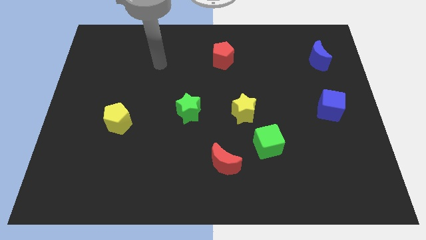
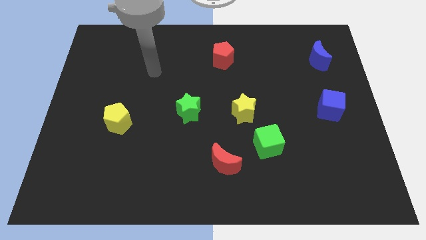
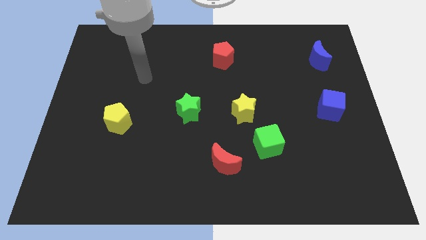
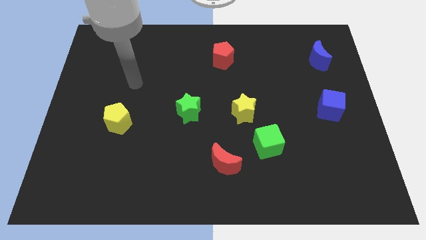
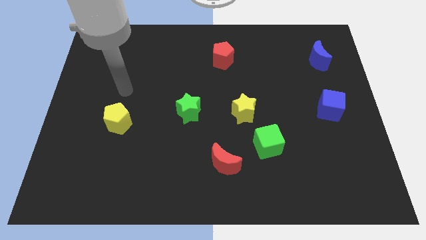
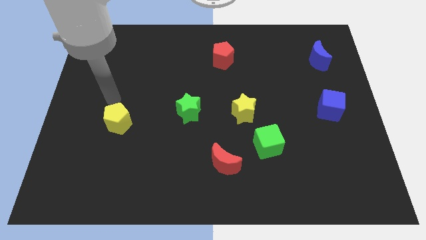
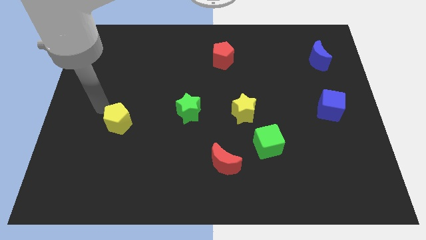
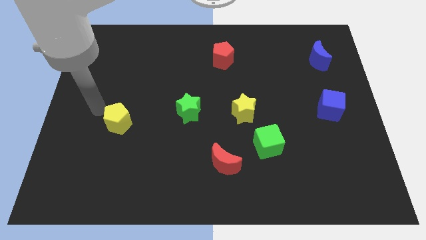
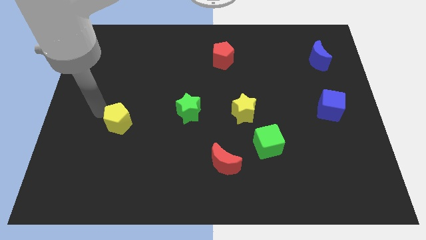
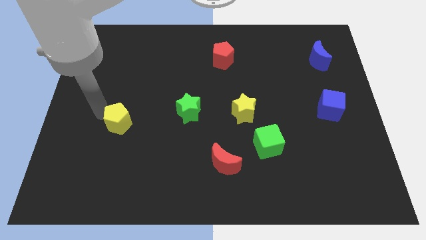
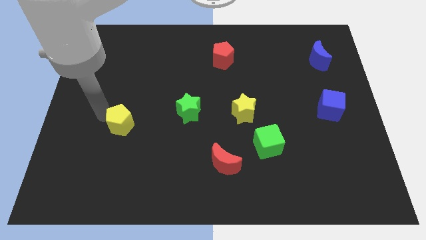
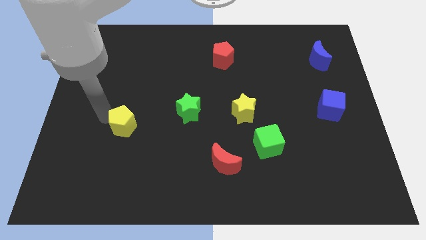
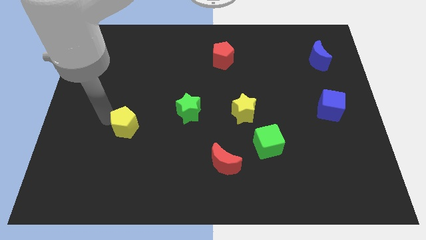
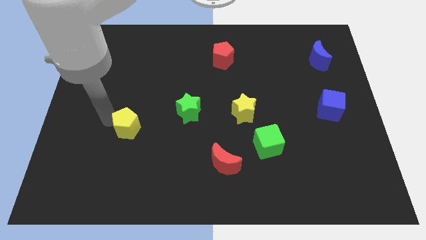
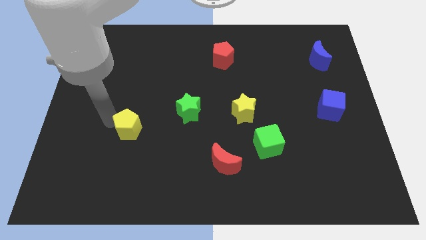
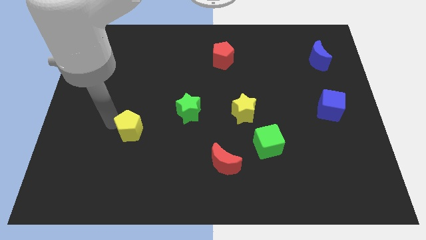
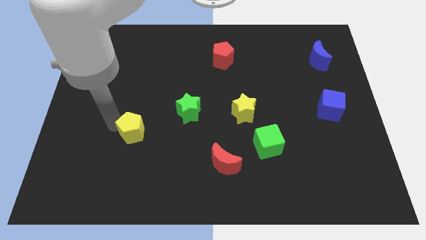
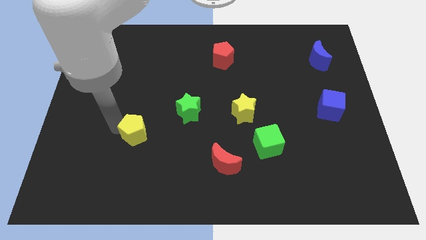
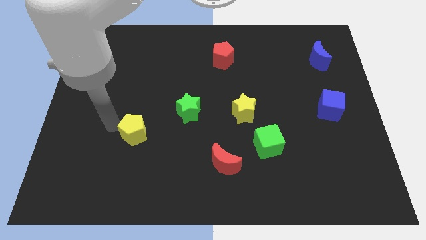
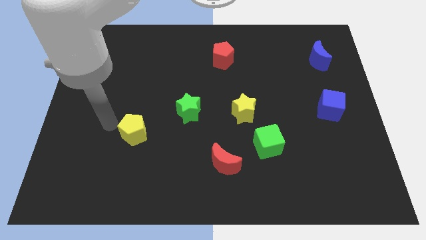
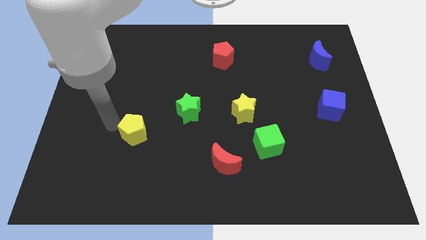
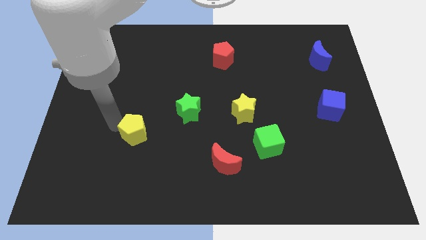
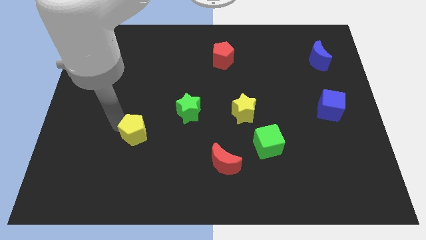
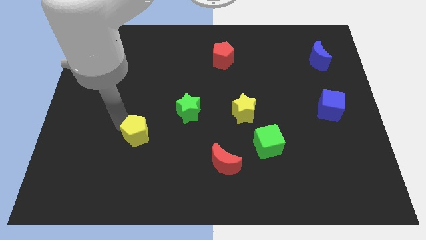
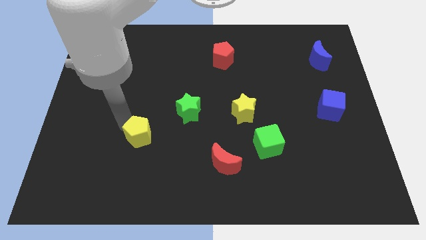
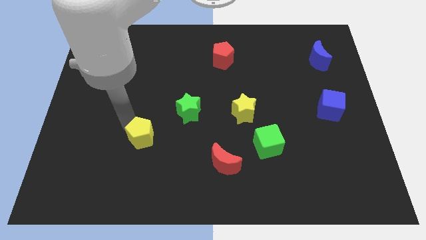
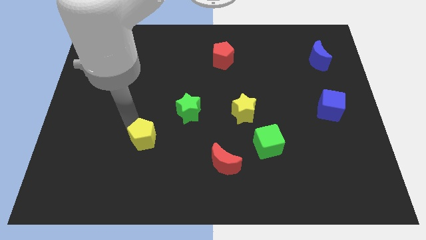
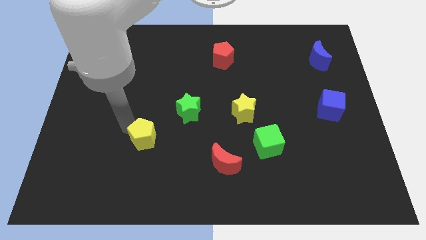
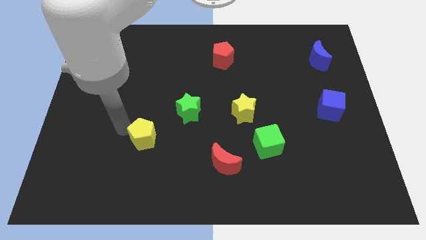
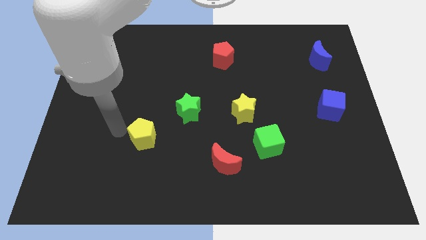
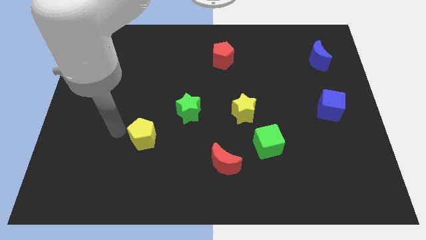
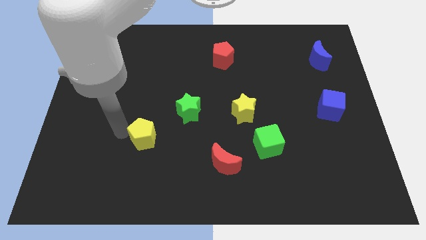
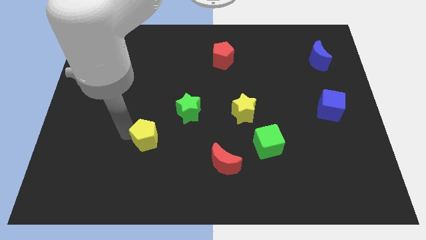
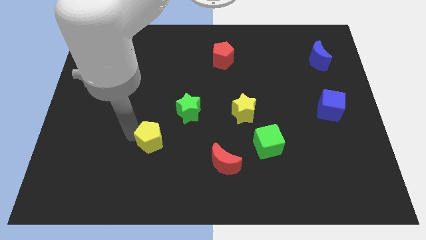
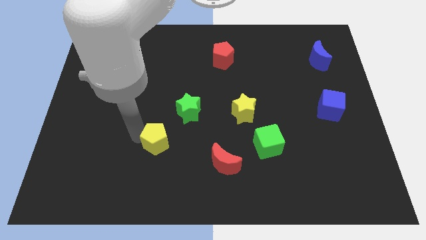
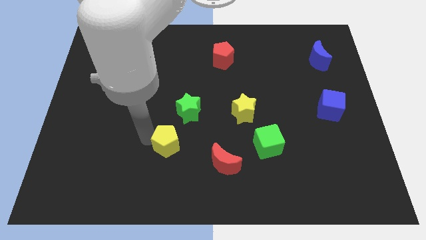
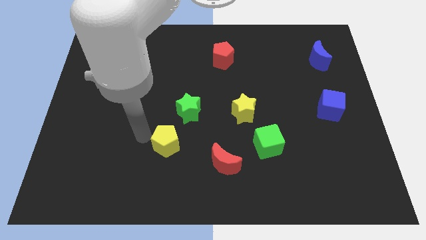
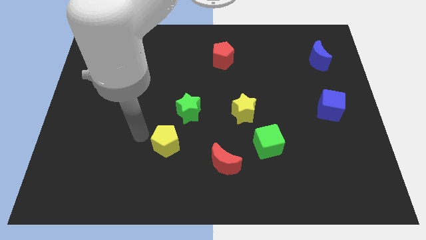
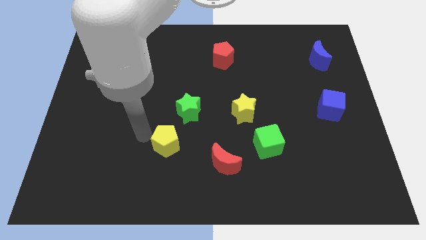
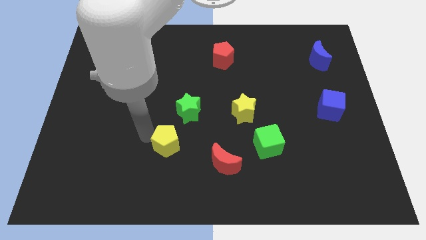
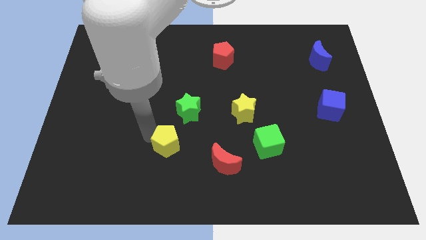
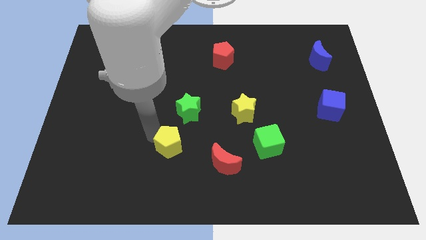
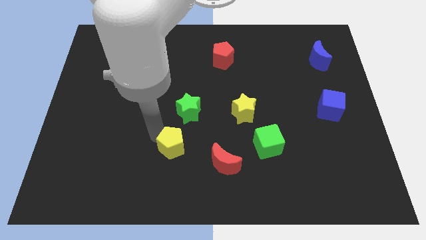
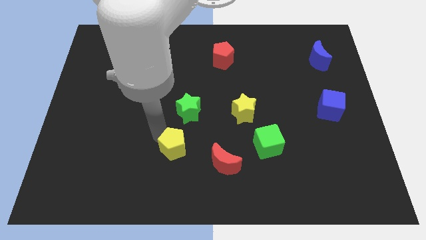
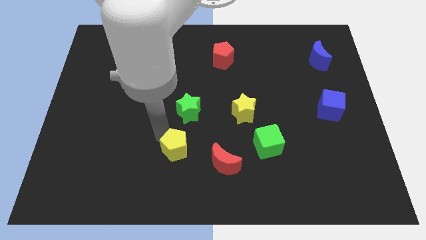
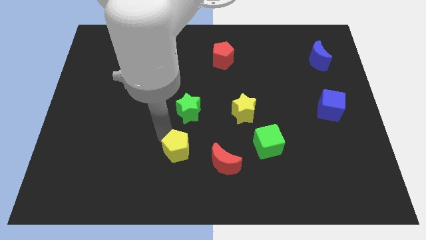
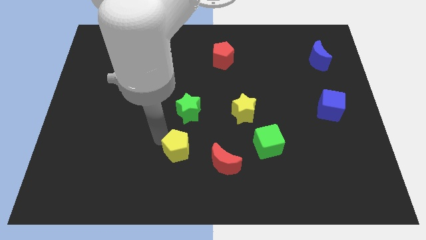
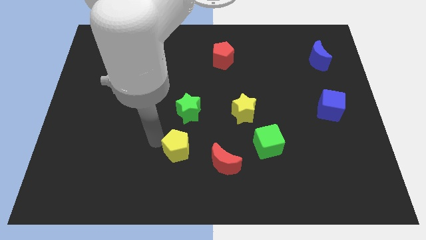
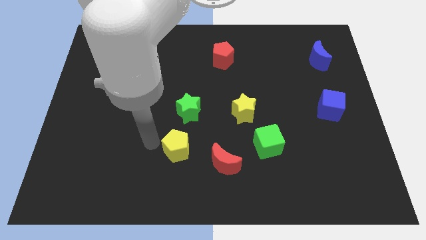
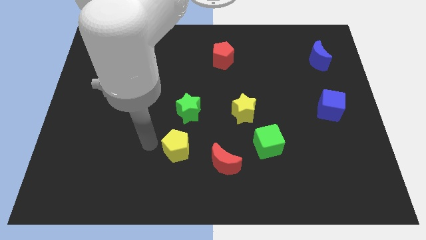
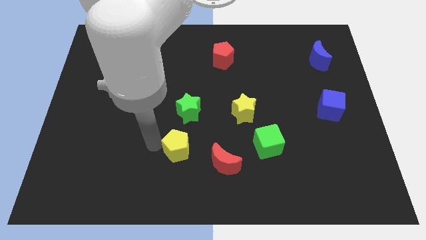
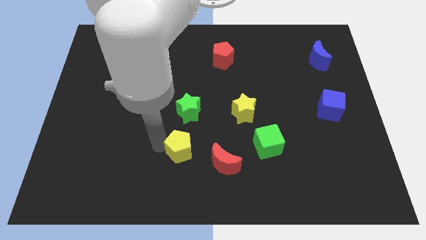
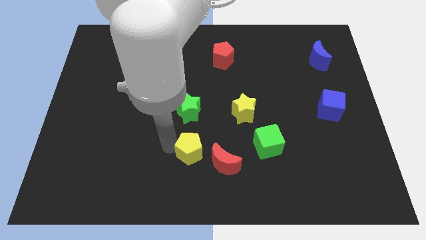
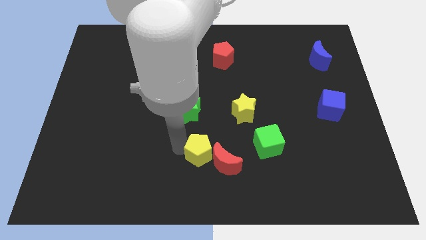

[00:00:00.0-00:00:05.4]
push the yellow pentagon towards the red moon

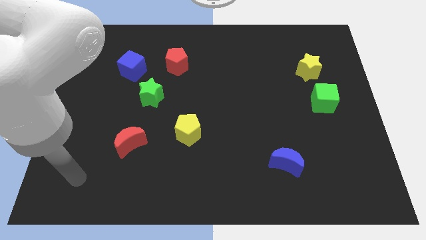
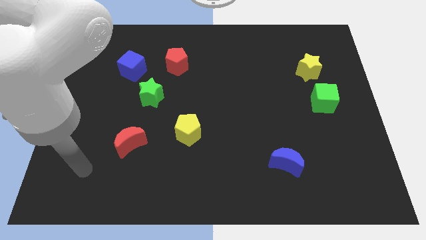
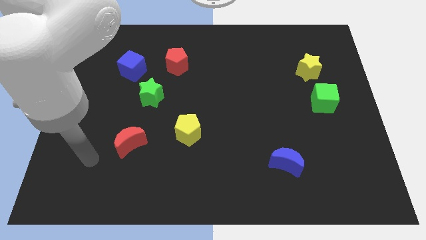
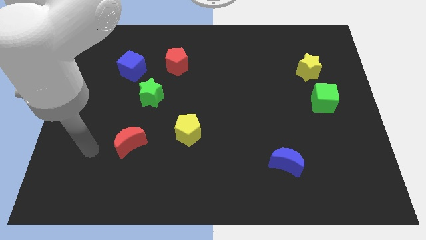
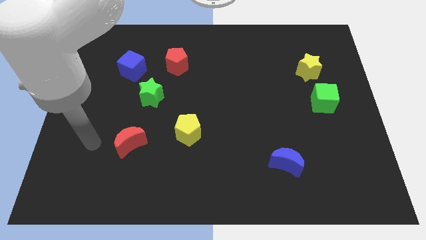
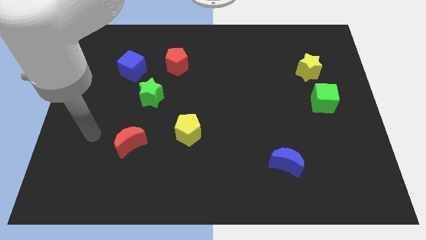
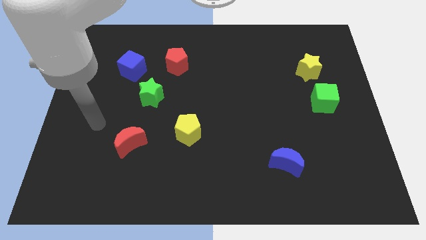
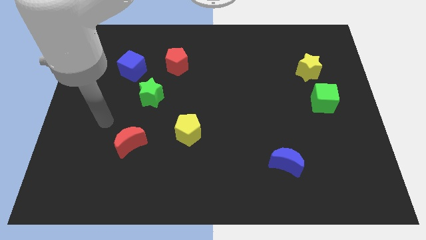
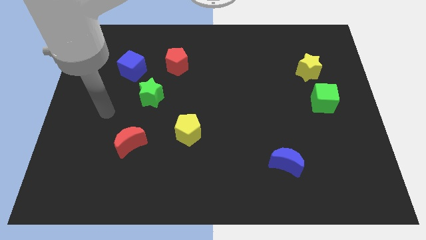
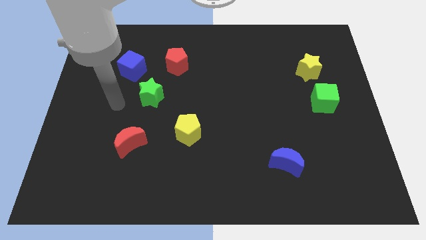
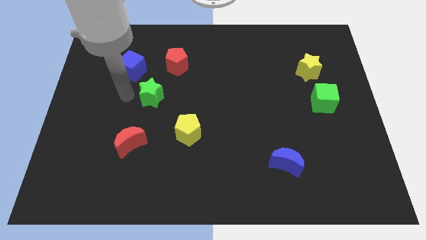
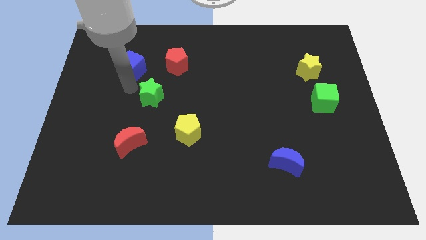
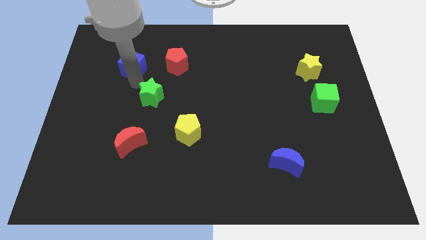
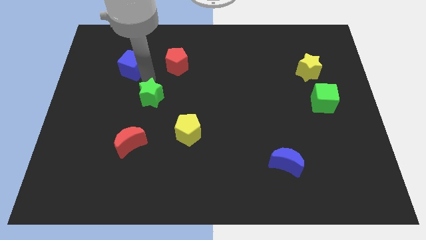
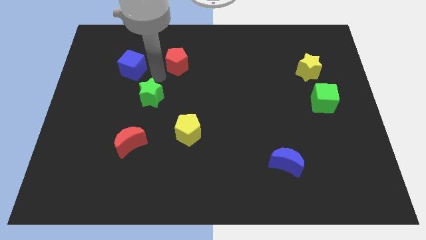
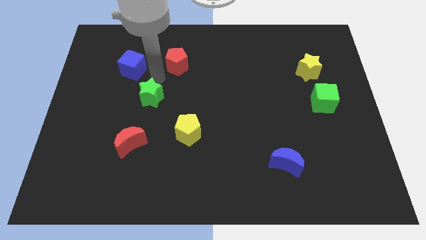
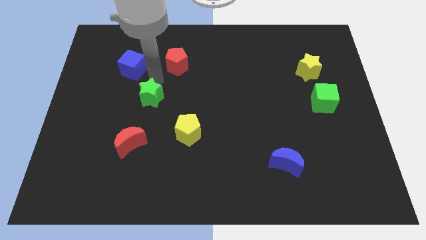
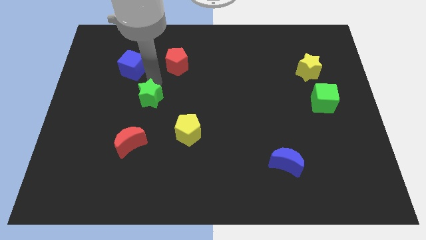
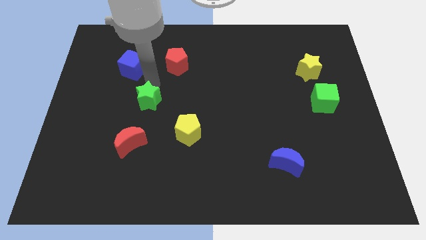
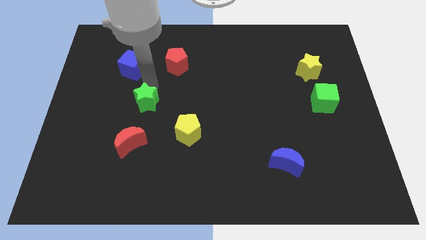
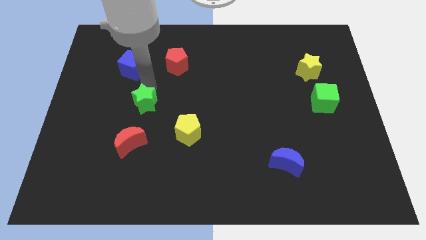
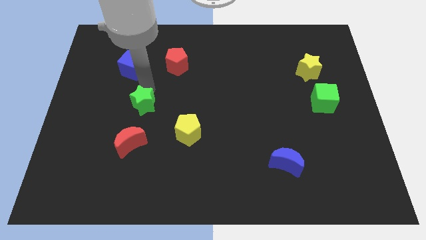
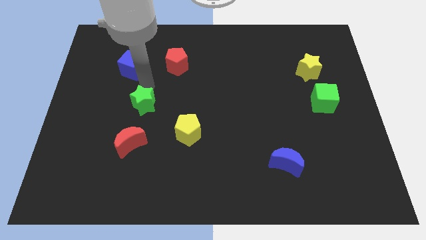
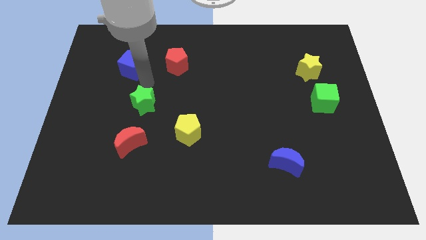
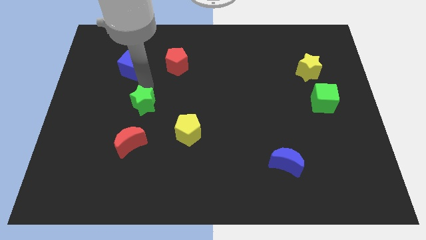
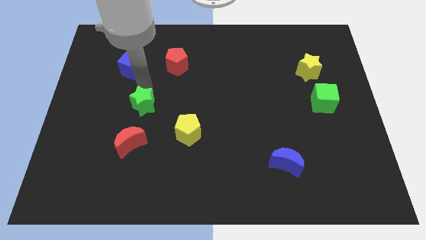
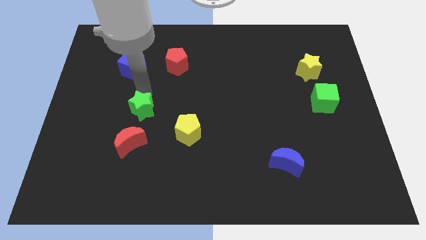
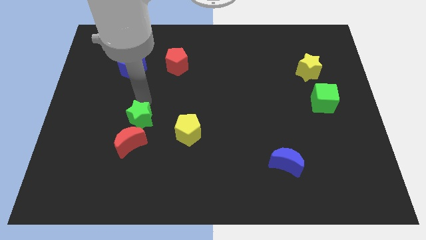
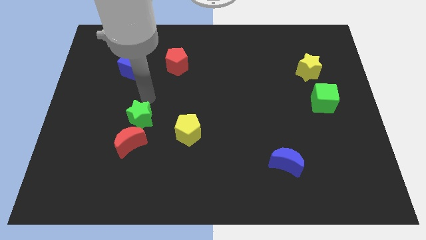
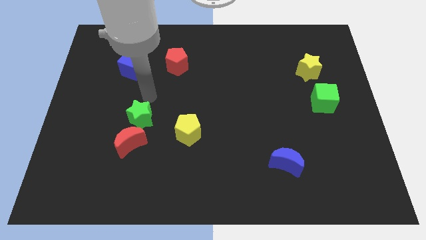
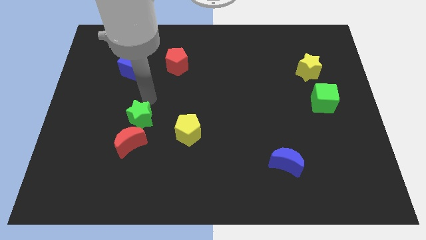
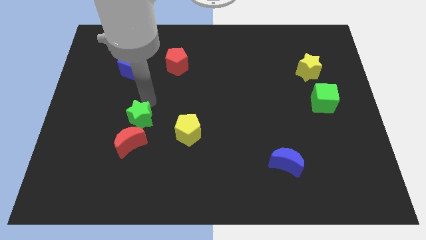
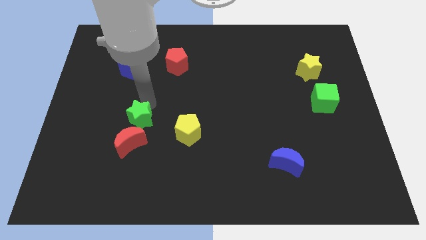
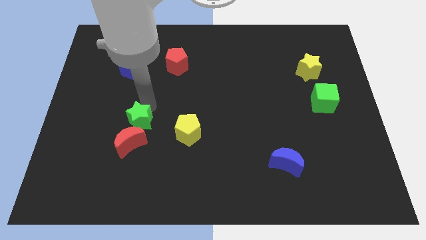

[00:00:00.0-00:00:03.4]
slide the green star towards the red moon
